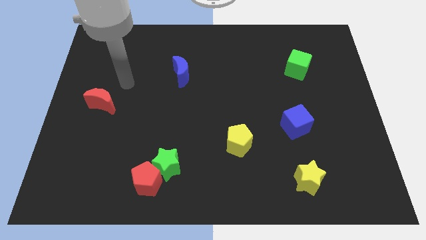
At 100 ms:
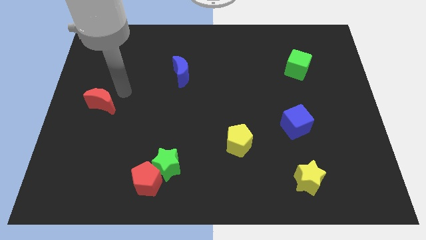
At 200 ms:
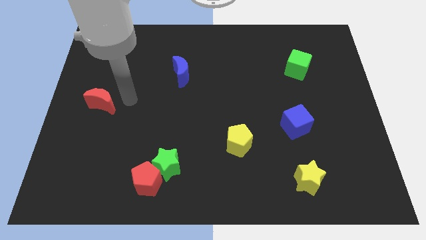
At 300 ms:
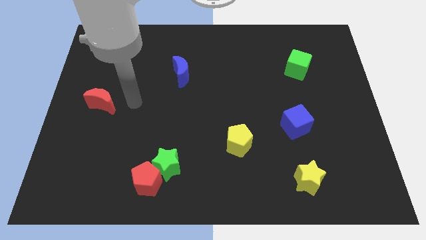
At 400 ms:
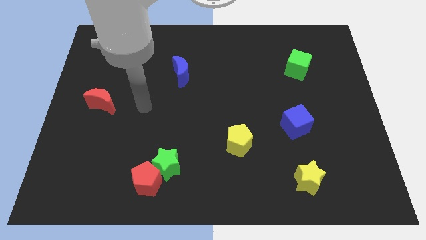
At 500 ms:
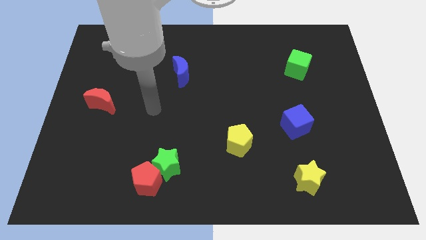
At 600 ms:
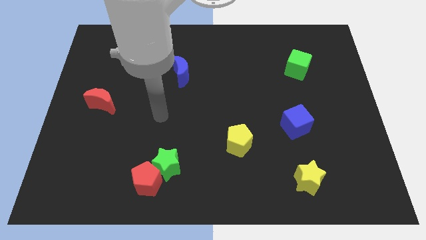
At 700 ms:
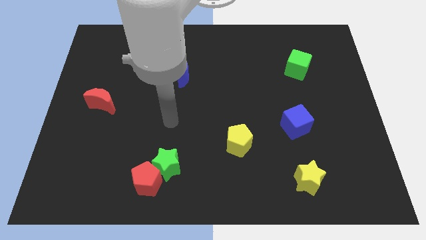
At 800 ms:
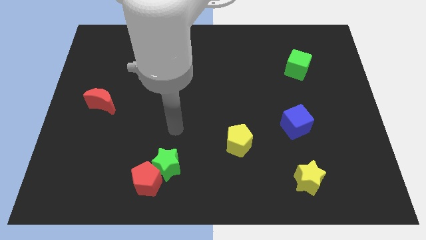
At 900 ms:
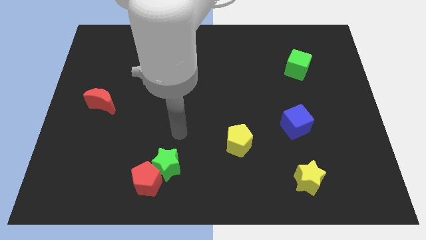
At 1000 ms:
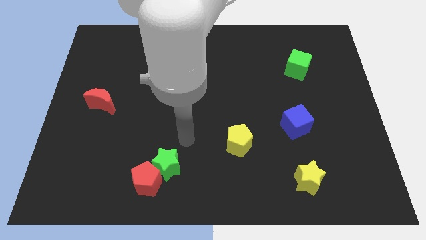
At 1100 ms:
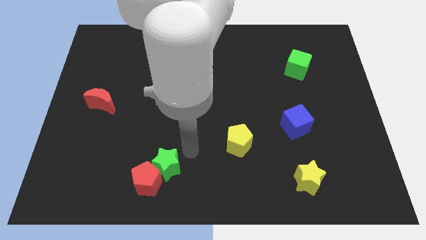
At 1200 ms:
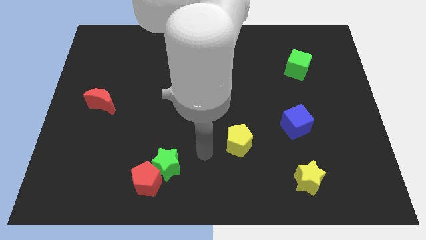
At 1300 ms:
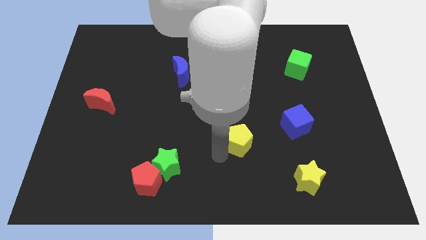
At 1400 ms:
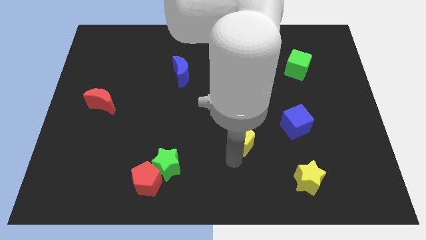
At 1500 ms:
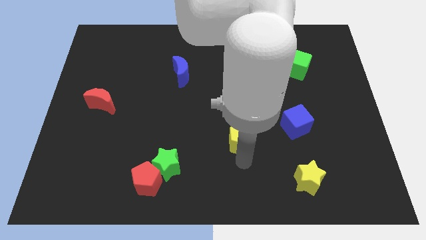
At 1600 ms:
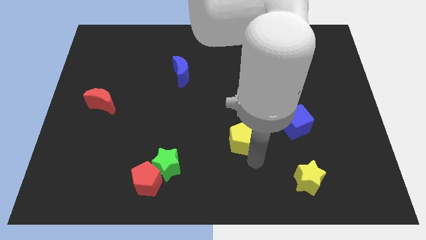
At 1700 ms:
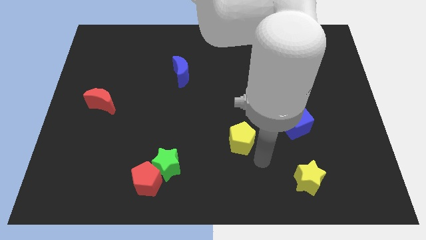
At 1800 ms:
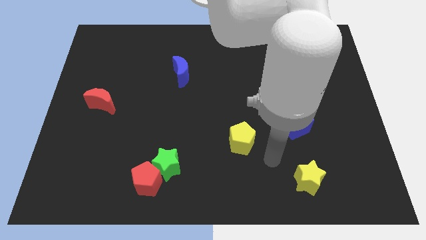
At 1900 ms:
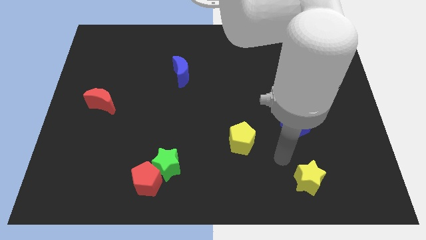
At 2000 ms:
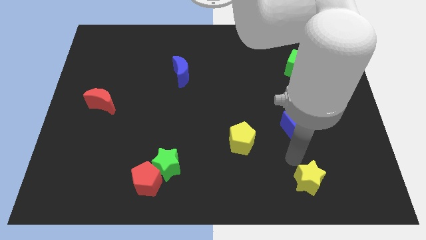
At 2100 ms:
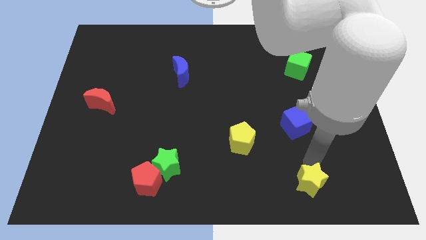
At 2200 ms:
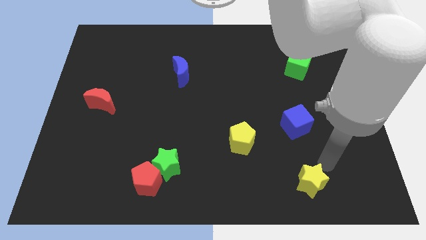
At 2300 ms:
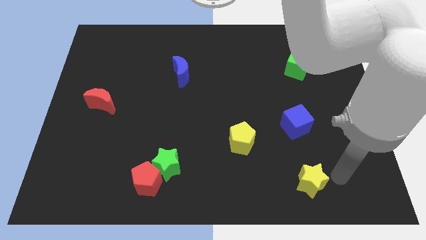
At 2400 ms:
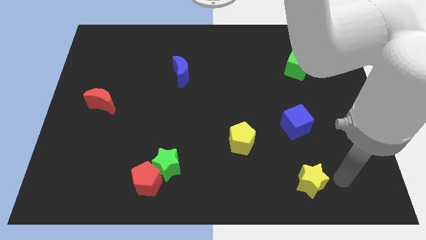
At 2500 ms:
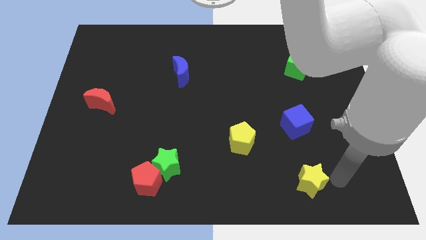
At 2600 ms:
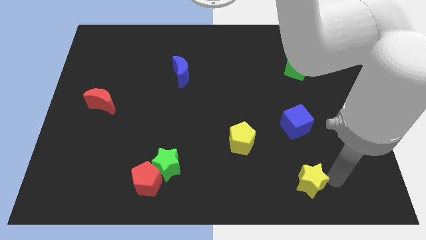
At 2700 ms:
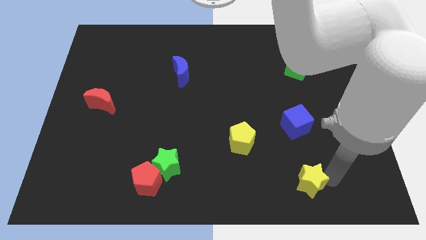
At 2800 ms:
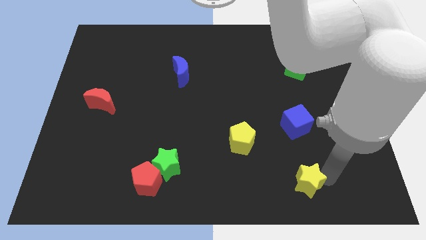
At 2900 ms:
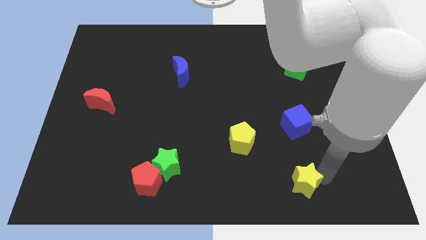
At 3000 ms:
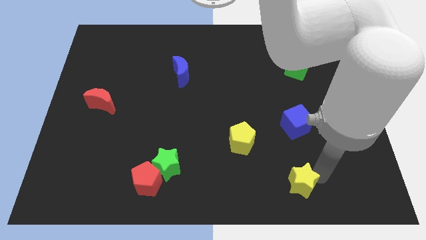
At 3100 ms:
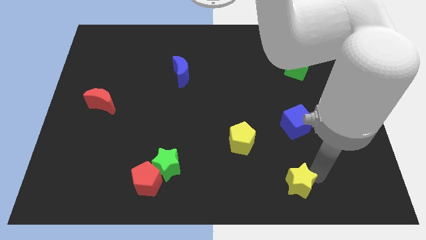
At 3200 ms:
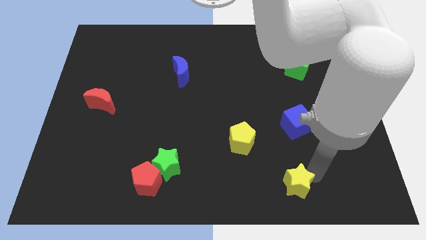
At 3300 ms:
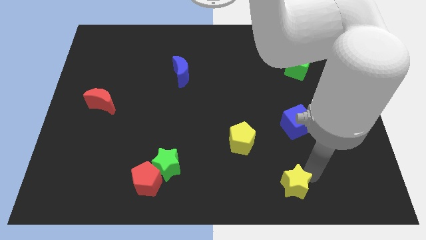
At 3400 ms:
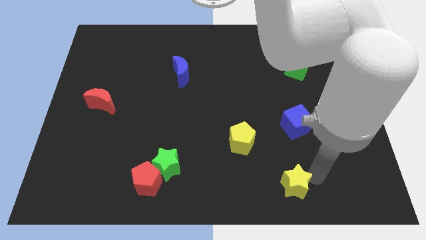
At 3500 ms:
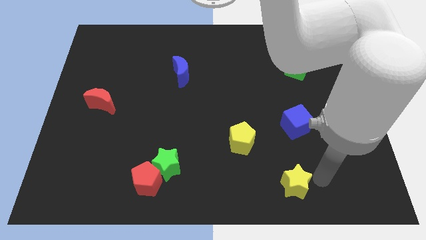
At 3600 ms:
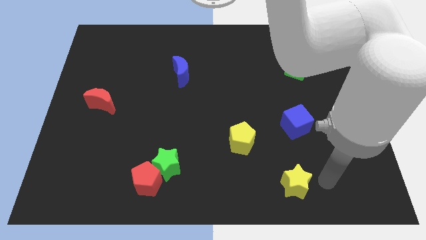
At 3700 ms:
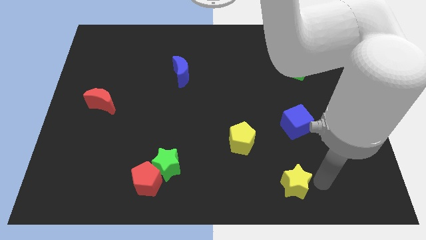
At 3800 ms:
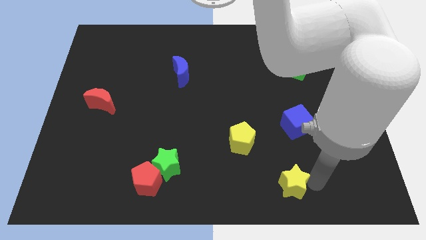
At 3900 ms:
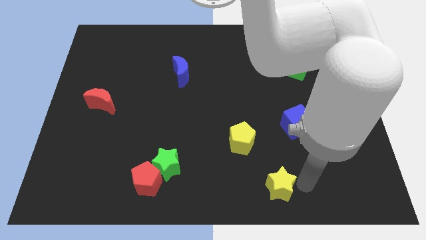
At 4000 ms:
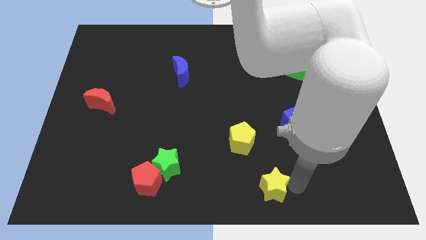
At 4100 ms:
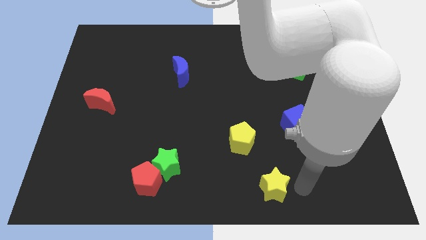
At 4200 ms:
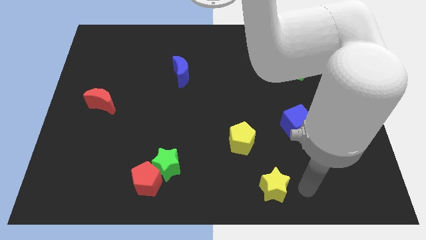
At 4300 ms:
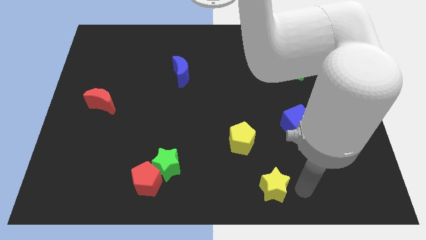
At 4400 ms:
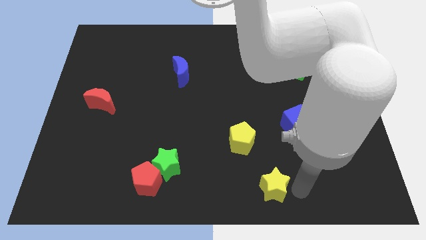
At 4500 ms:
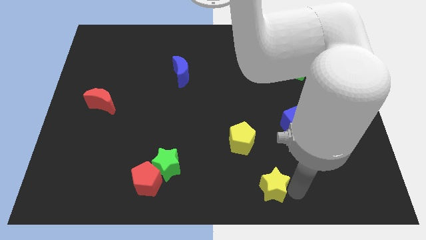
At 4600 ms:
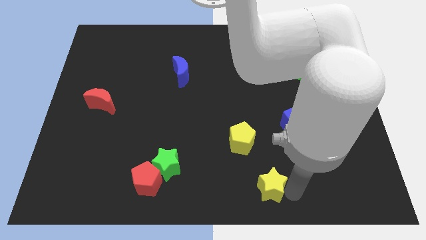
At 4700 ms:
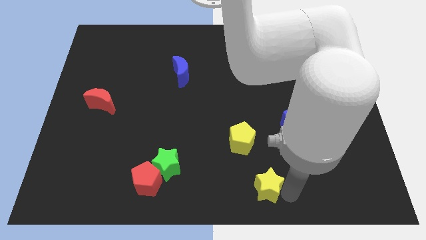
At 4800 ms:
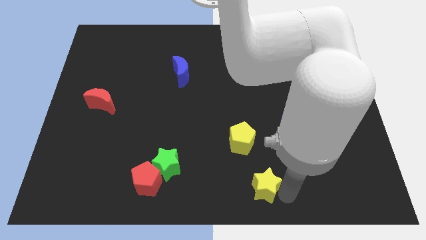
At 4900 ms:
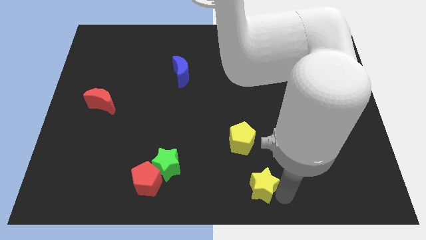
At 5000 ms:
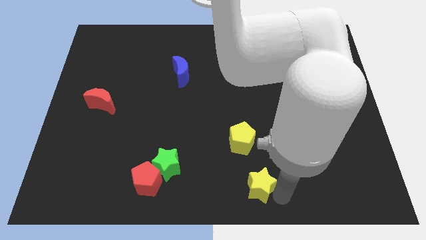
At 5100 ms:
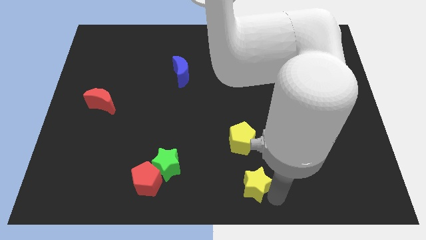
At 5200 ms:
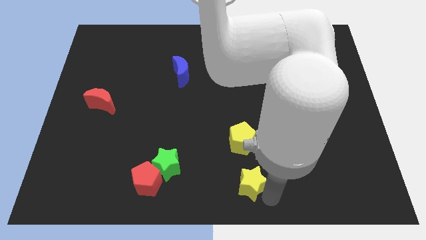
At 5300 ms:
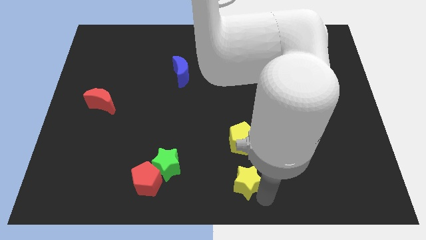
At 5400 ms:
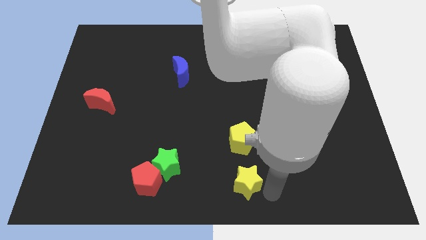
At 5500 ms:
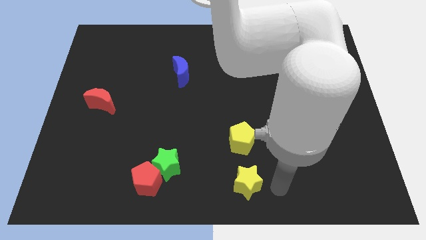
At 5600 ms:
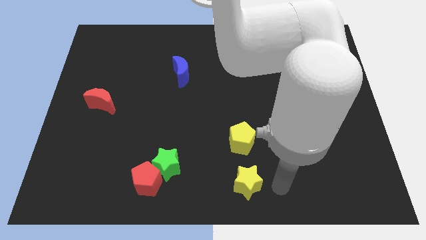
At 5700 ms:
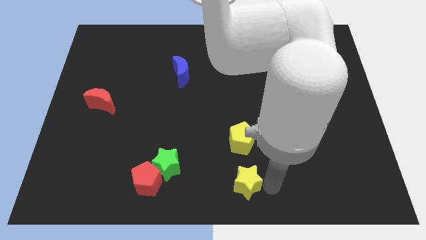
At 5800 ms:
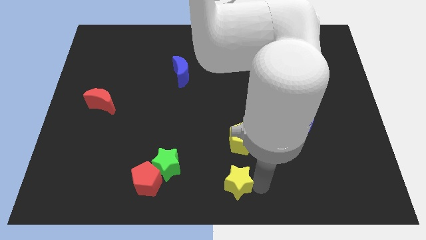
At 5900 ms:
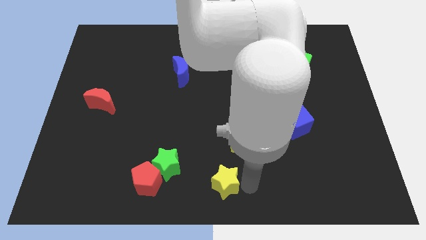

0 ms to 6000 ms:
push the yellow star just right of the red pentagon

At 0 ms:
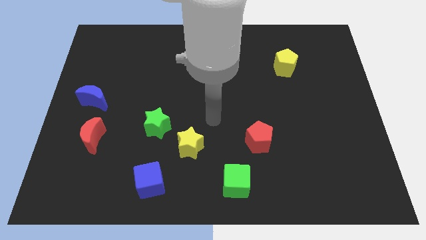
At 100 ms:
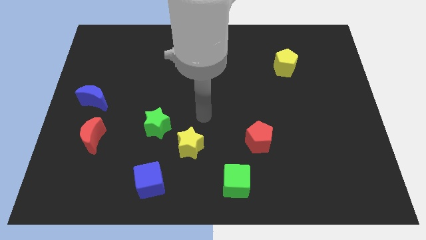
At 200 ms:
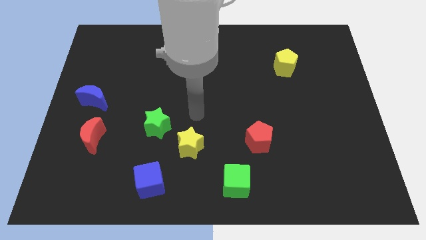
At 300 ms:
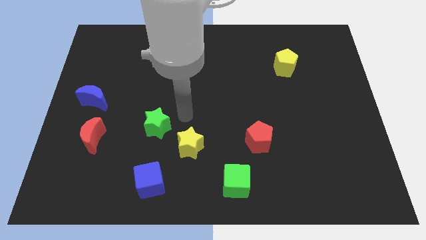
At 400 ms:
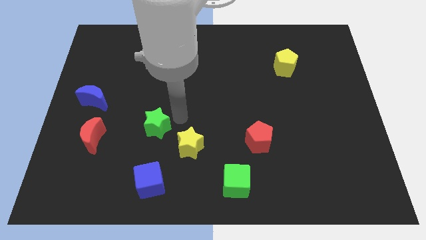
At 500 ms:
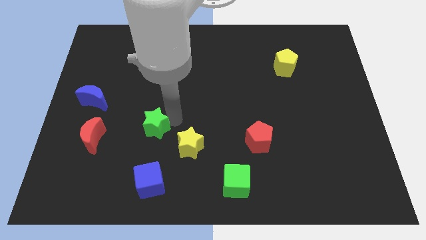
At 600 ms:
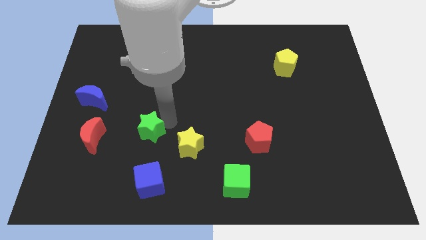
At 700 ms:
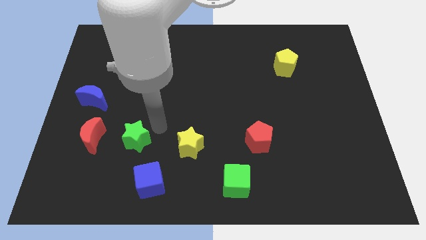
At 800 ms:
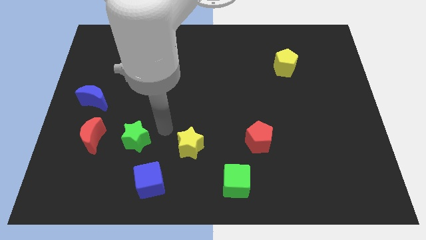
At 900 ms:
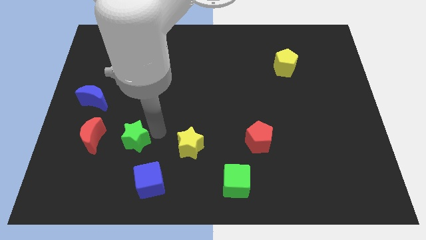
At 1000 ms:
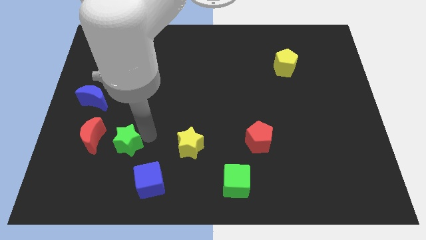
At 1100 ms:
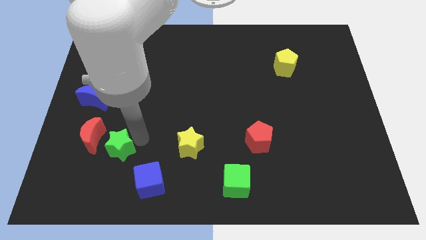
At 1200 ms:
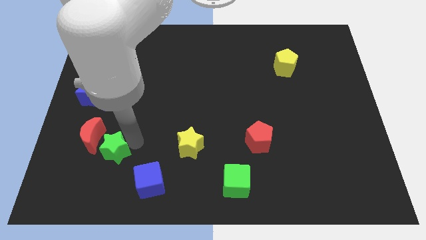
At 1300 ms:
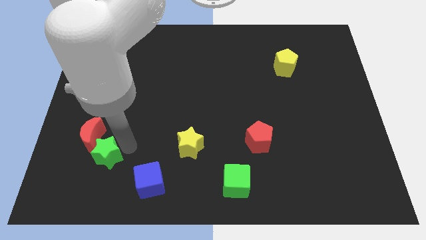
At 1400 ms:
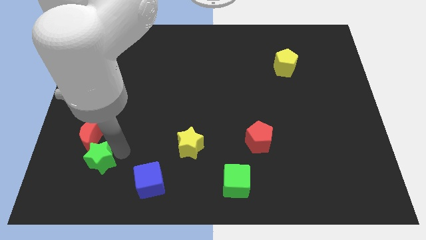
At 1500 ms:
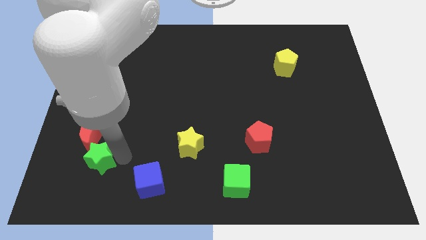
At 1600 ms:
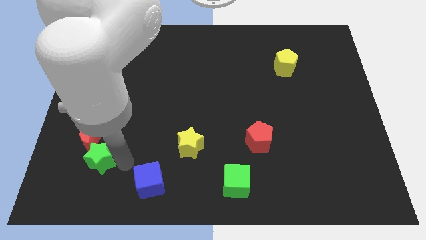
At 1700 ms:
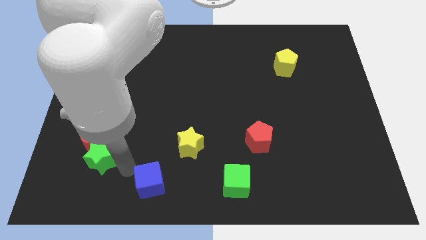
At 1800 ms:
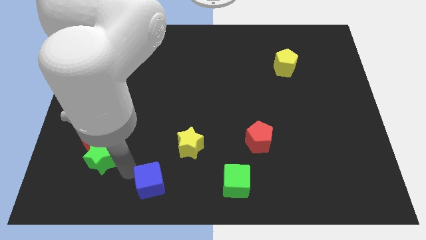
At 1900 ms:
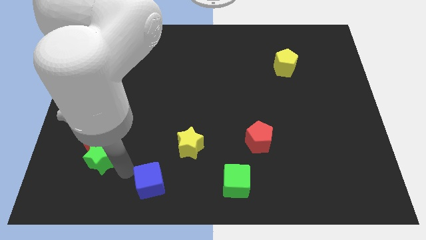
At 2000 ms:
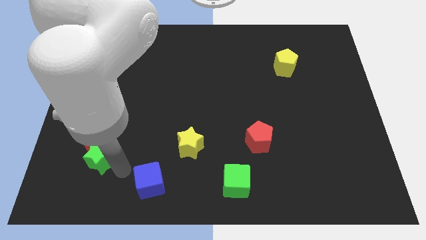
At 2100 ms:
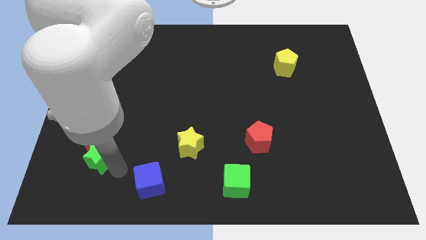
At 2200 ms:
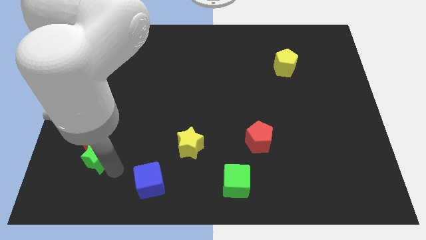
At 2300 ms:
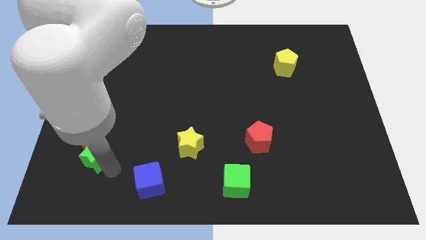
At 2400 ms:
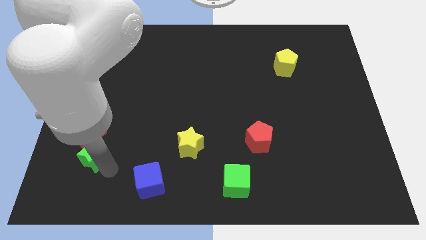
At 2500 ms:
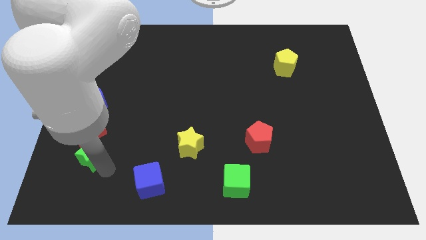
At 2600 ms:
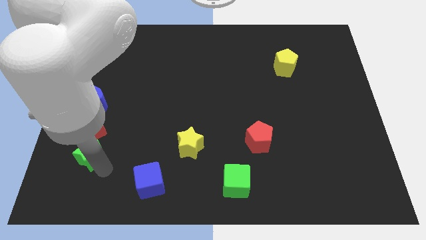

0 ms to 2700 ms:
slide the green star to the bottom of the blue moon
